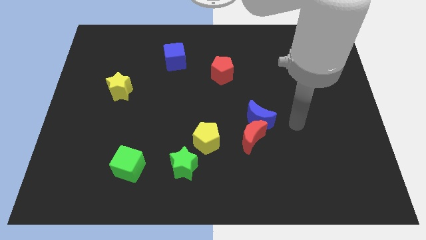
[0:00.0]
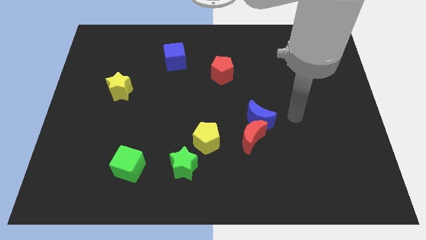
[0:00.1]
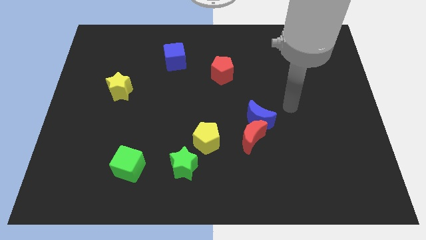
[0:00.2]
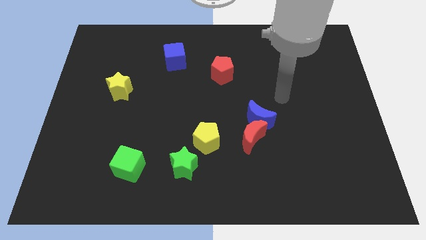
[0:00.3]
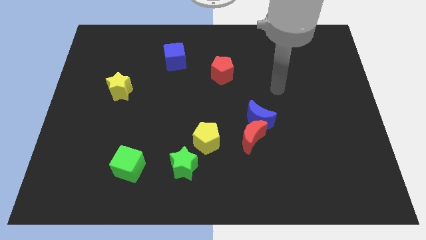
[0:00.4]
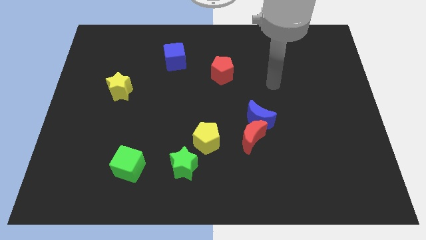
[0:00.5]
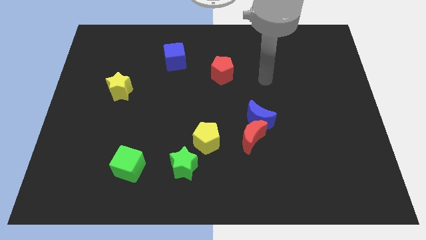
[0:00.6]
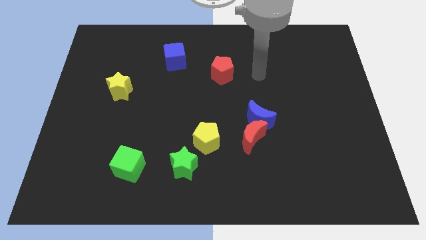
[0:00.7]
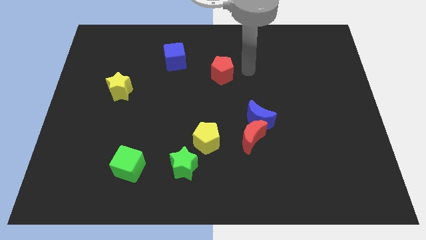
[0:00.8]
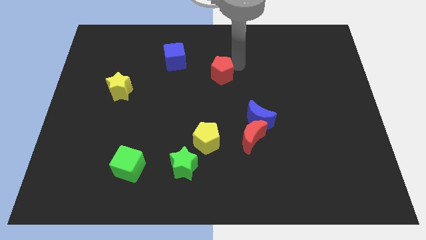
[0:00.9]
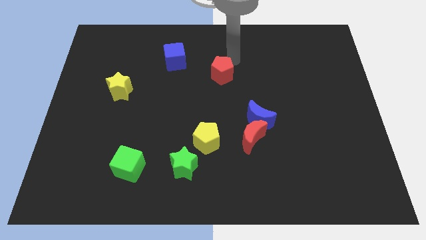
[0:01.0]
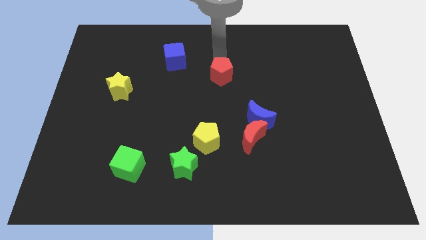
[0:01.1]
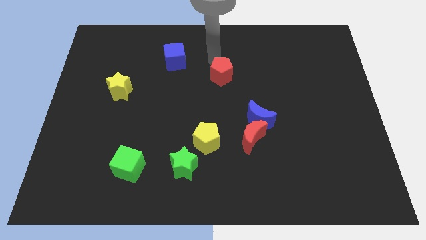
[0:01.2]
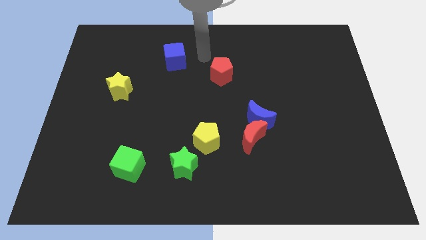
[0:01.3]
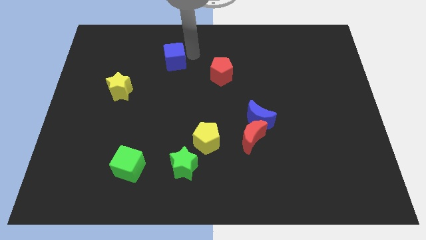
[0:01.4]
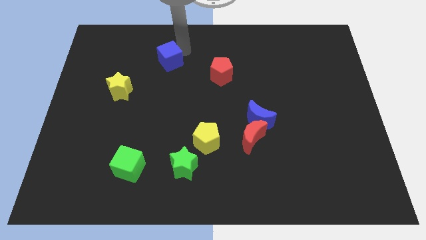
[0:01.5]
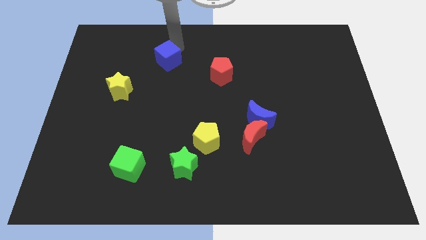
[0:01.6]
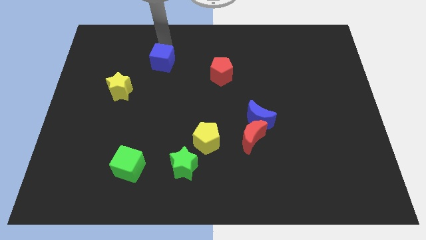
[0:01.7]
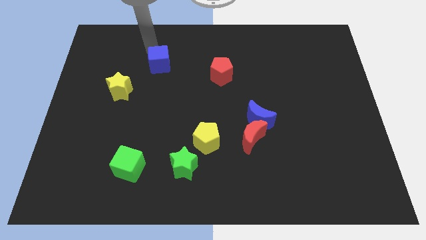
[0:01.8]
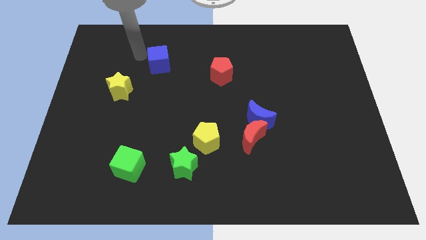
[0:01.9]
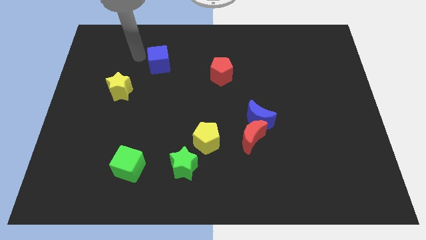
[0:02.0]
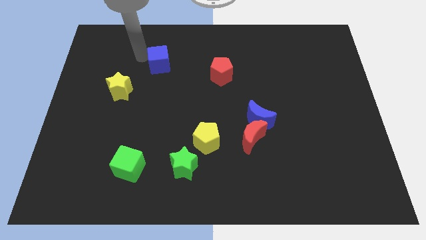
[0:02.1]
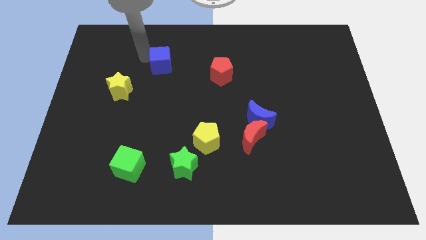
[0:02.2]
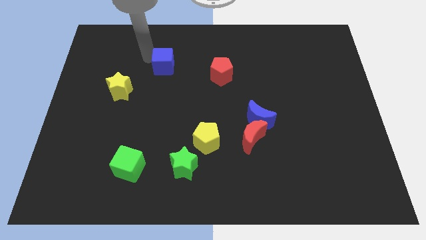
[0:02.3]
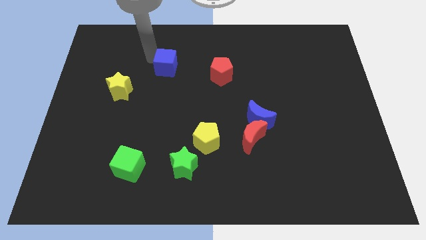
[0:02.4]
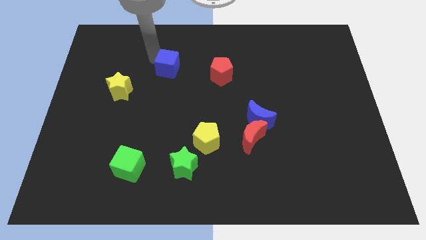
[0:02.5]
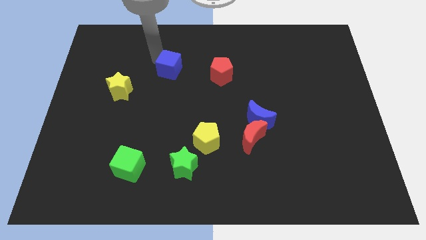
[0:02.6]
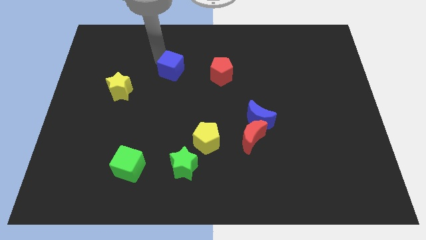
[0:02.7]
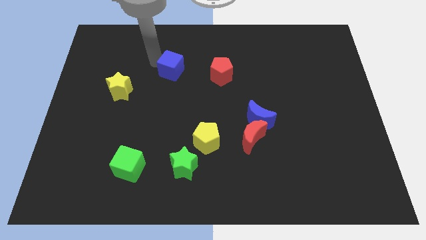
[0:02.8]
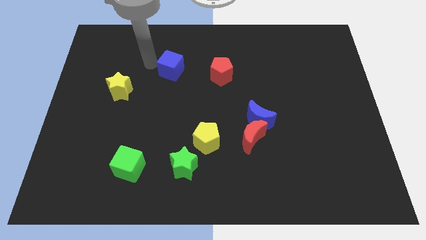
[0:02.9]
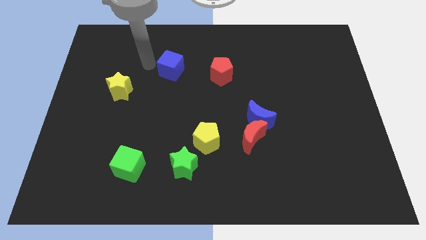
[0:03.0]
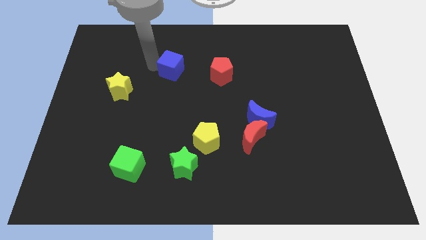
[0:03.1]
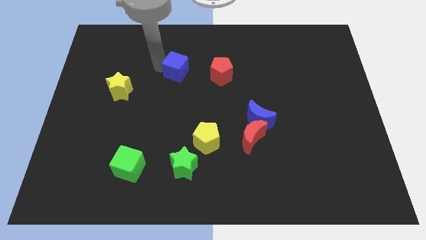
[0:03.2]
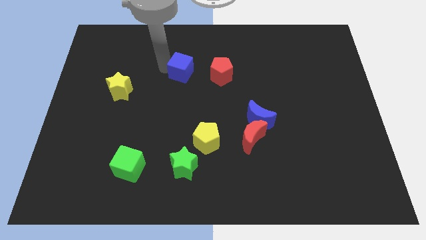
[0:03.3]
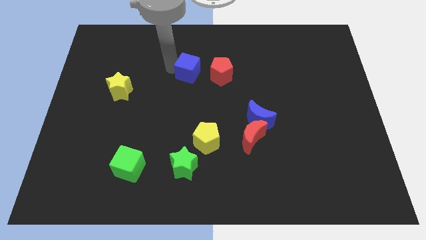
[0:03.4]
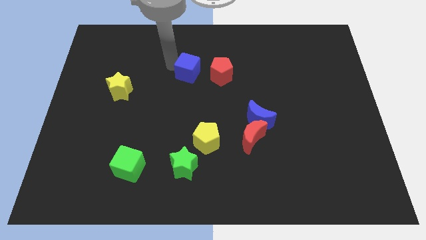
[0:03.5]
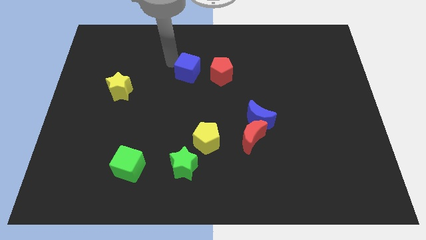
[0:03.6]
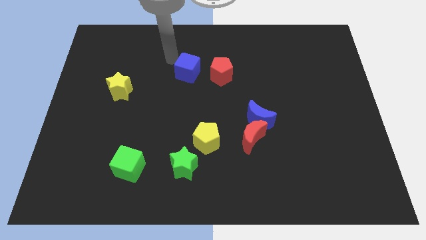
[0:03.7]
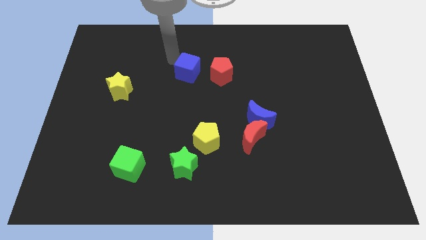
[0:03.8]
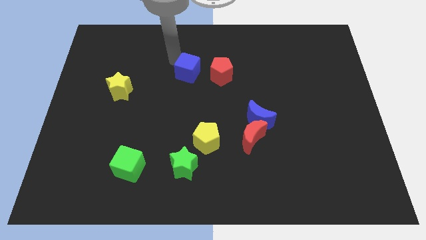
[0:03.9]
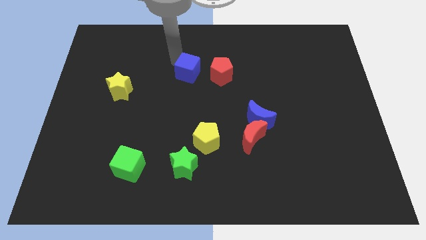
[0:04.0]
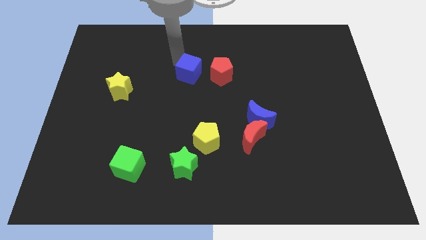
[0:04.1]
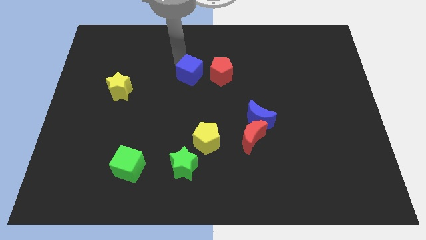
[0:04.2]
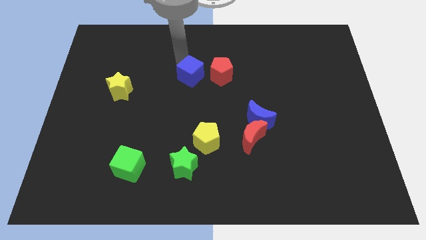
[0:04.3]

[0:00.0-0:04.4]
slide the blue cube a little bit downwards and then to the right

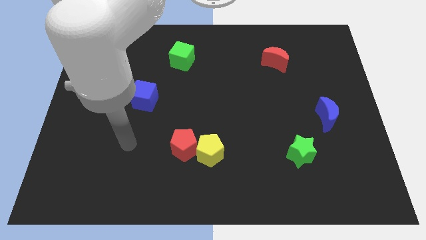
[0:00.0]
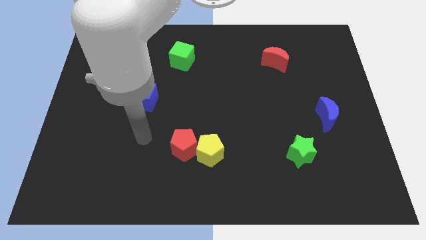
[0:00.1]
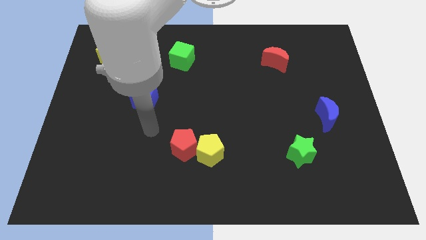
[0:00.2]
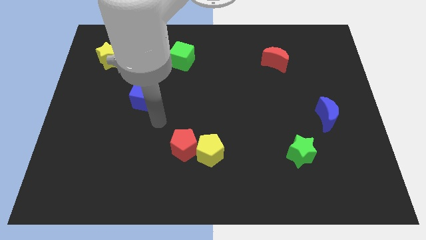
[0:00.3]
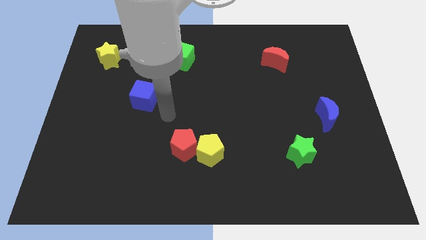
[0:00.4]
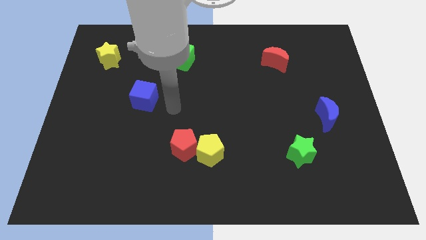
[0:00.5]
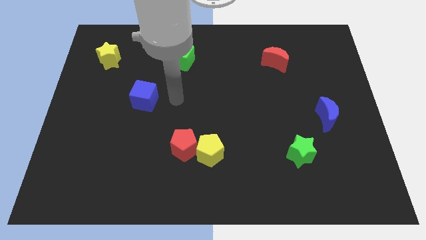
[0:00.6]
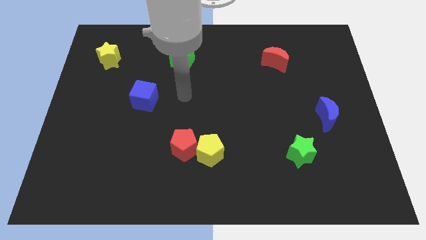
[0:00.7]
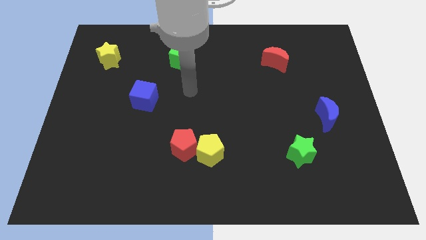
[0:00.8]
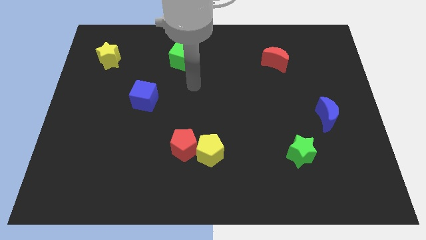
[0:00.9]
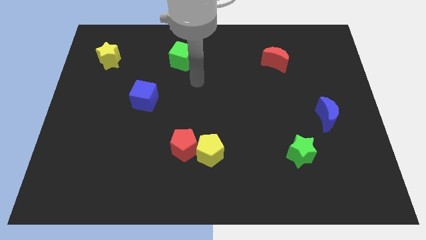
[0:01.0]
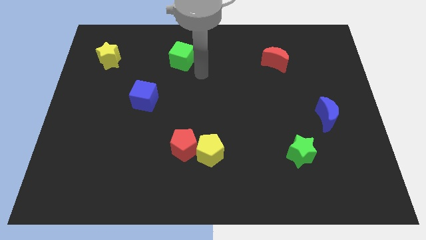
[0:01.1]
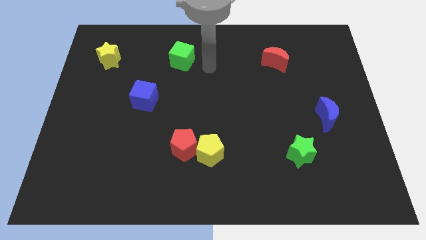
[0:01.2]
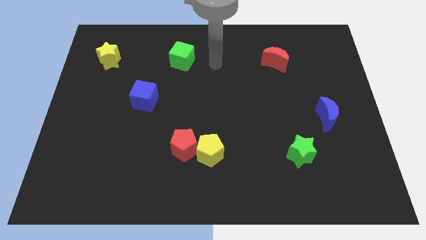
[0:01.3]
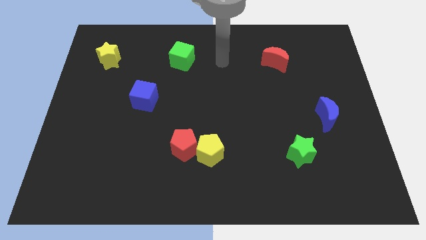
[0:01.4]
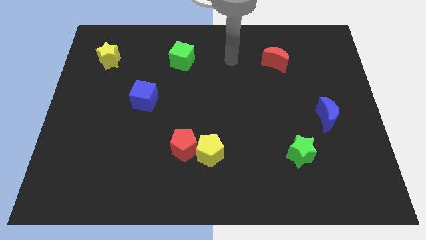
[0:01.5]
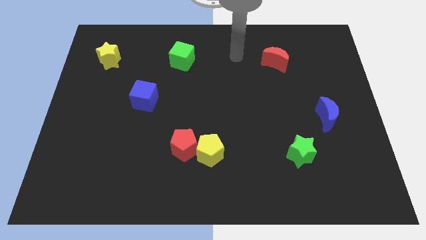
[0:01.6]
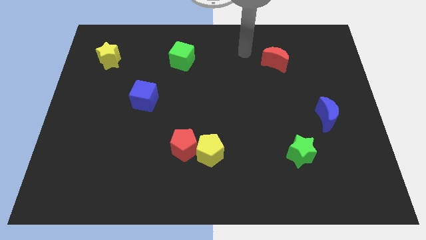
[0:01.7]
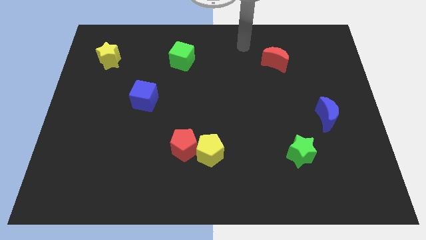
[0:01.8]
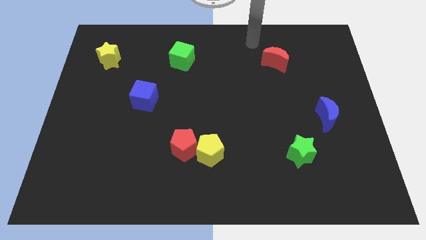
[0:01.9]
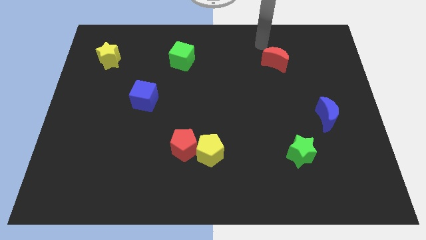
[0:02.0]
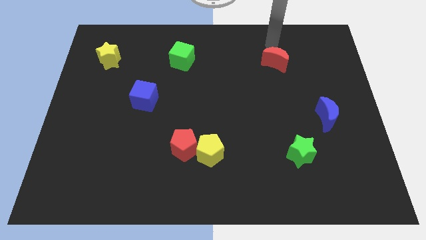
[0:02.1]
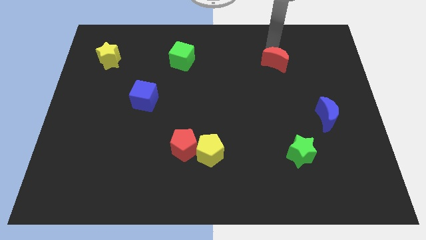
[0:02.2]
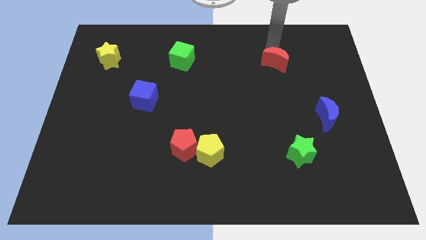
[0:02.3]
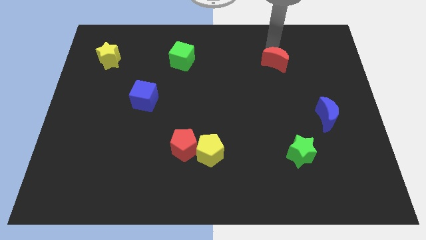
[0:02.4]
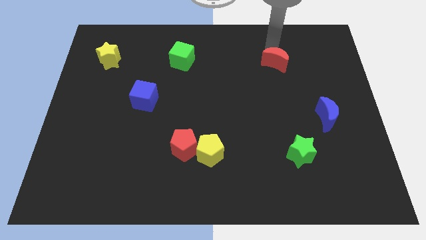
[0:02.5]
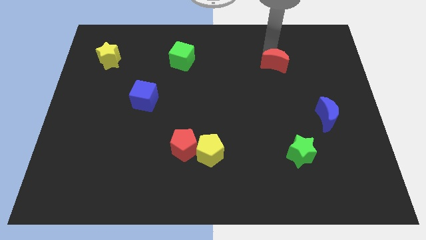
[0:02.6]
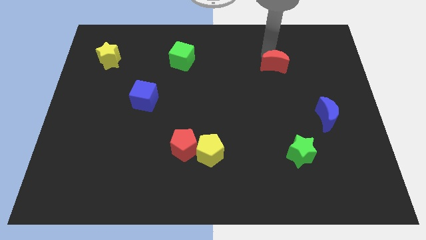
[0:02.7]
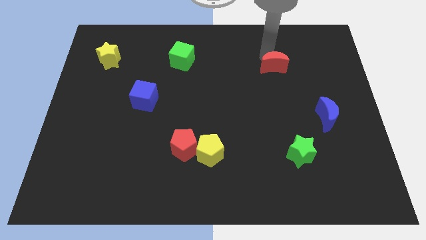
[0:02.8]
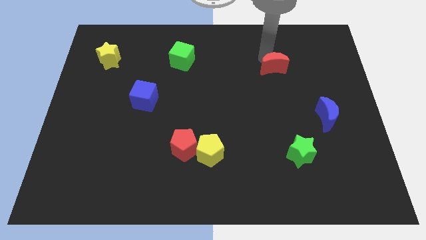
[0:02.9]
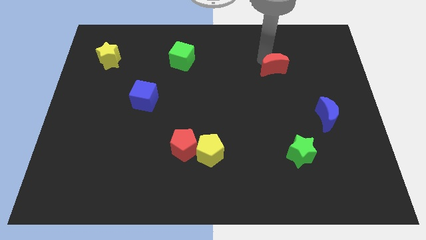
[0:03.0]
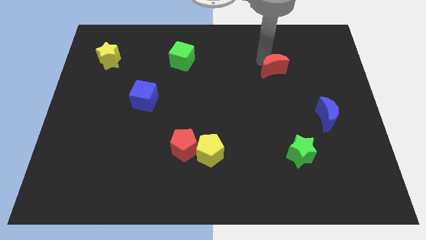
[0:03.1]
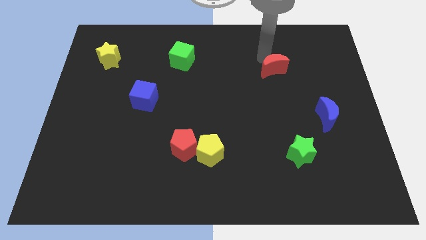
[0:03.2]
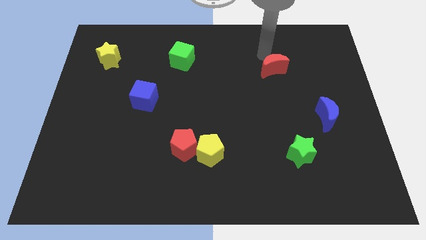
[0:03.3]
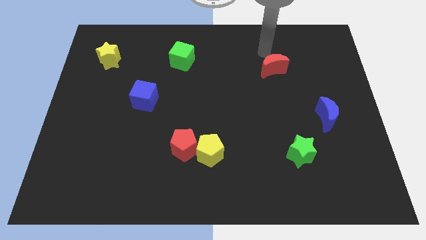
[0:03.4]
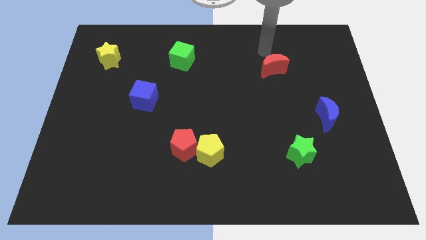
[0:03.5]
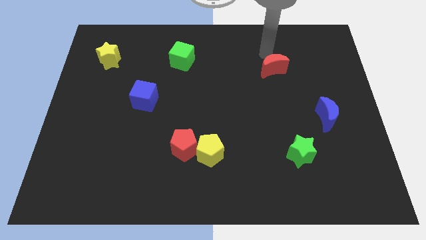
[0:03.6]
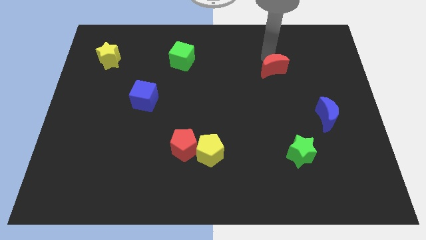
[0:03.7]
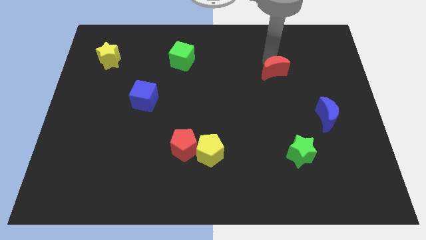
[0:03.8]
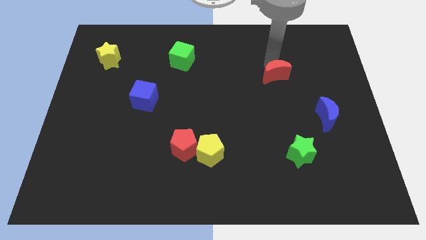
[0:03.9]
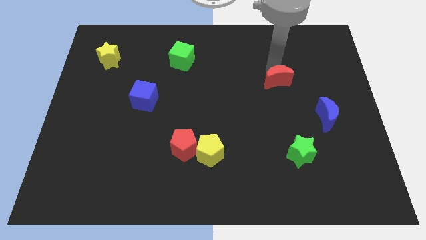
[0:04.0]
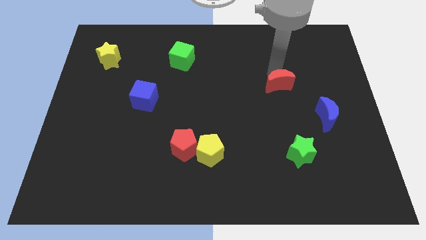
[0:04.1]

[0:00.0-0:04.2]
slightly push the red moon downwards
